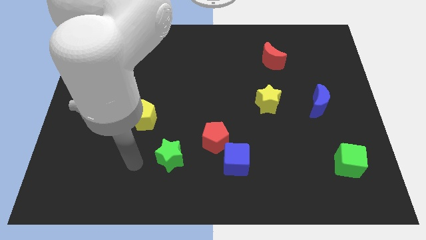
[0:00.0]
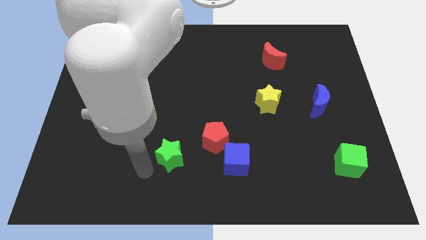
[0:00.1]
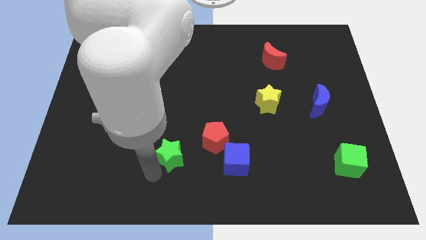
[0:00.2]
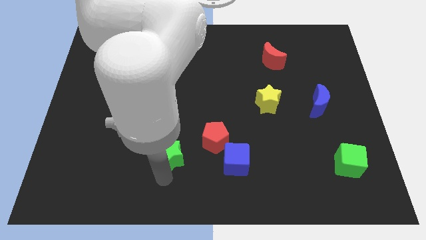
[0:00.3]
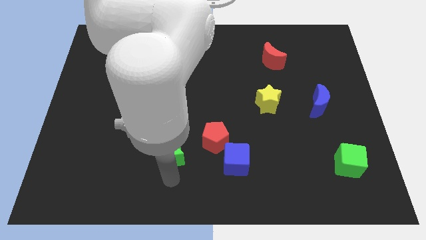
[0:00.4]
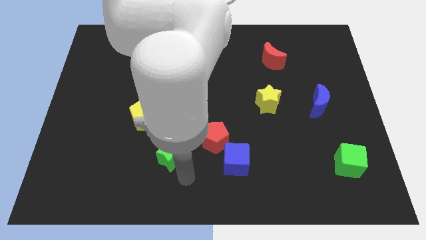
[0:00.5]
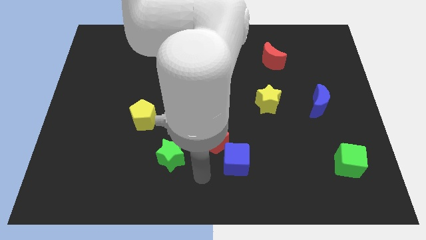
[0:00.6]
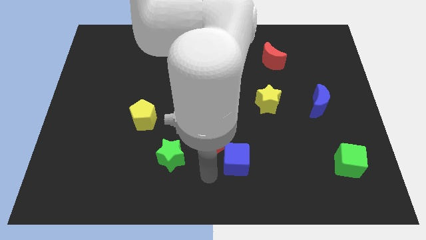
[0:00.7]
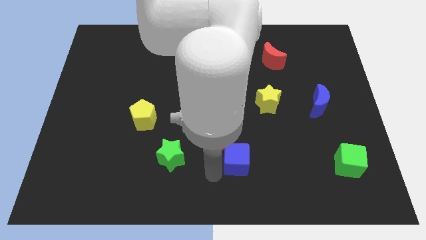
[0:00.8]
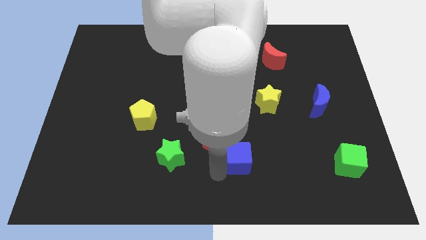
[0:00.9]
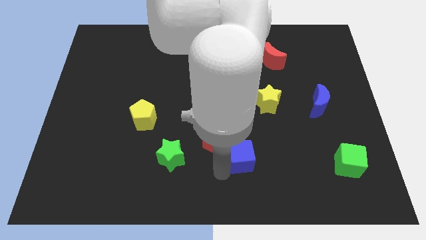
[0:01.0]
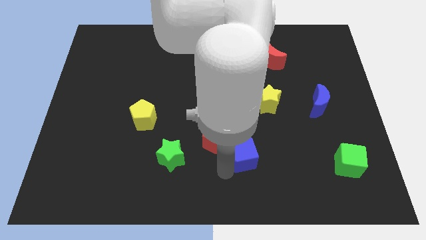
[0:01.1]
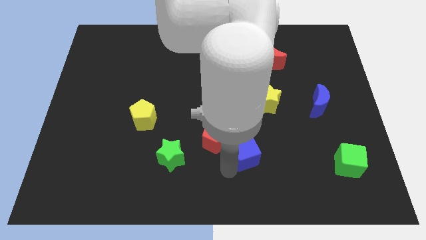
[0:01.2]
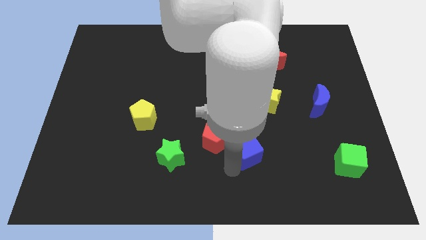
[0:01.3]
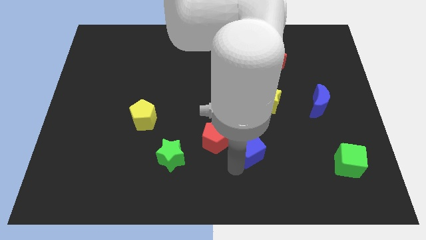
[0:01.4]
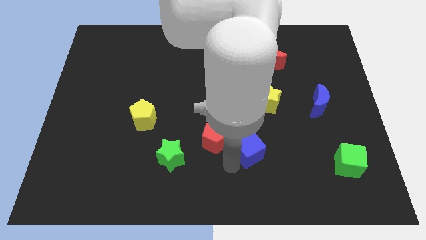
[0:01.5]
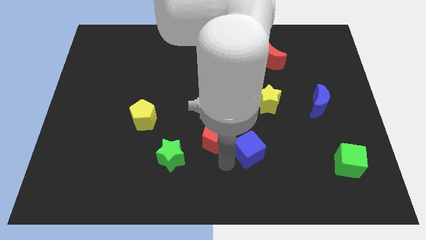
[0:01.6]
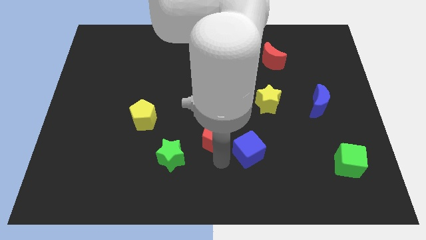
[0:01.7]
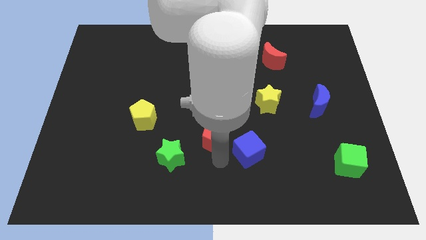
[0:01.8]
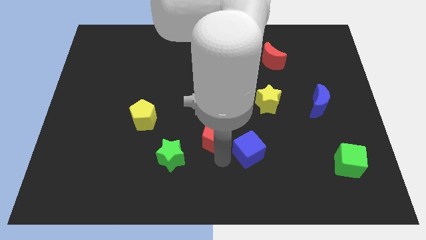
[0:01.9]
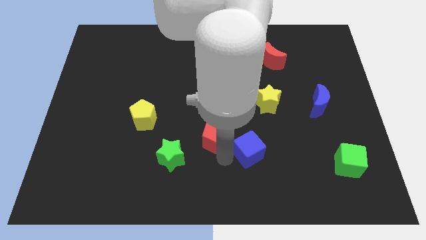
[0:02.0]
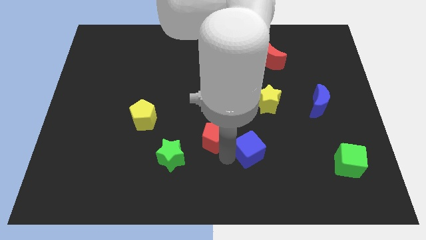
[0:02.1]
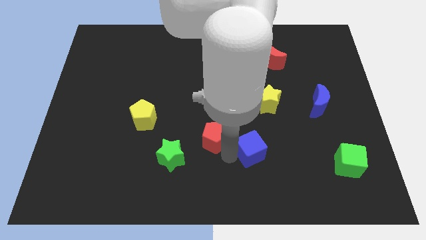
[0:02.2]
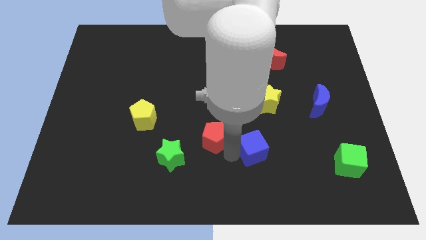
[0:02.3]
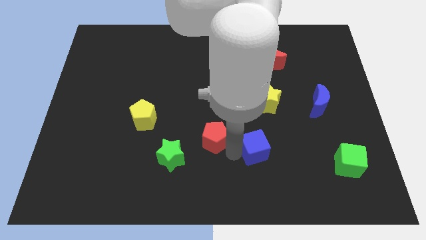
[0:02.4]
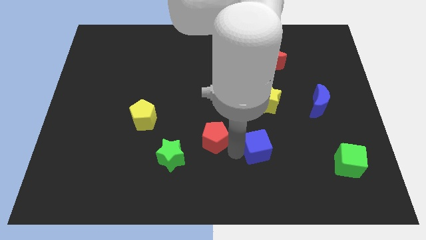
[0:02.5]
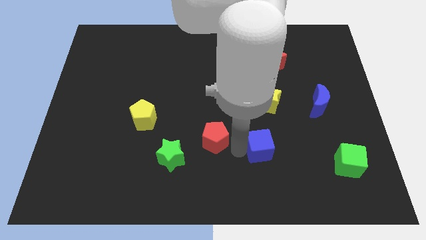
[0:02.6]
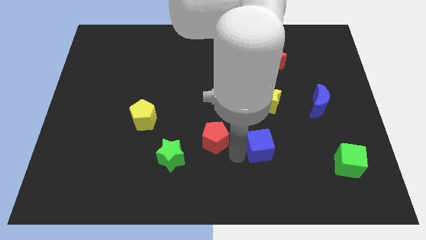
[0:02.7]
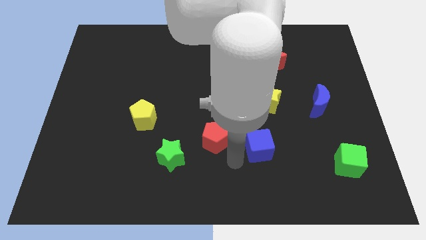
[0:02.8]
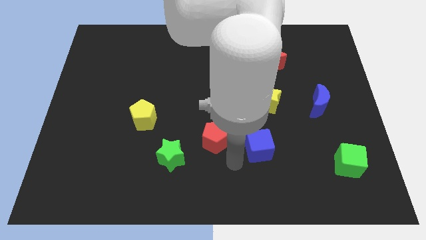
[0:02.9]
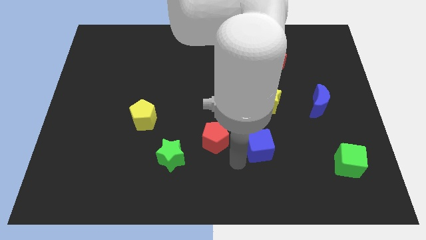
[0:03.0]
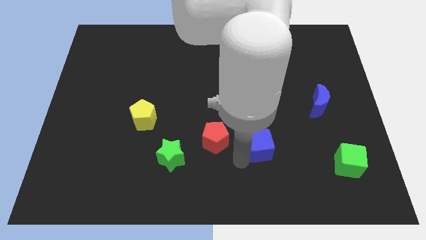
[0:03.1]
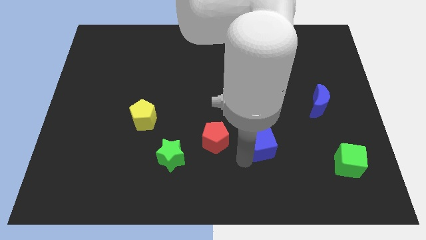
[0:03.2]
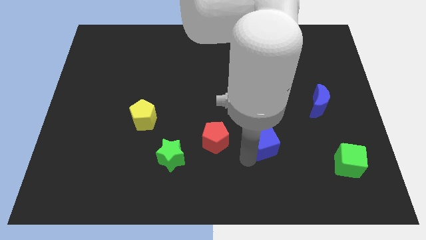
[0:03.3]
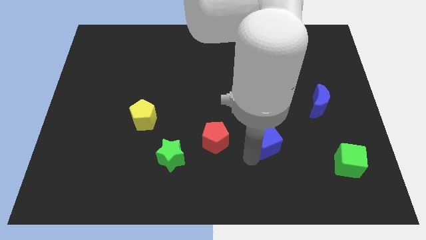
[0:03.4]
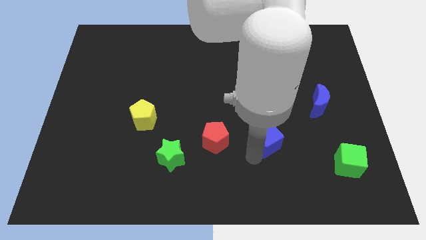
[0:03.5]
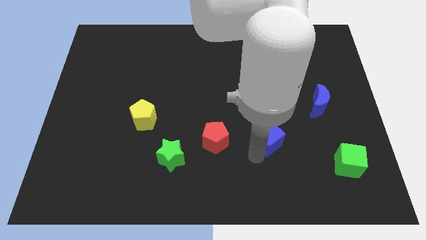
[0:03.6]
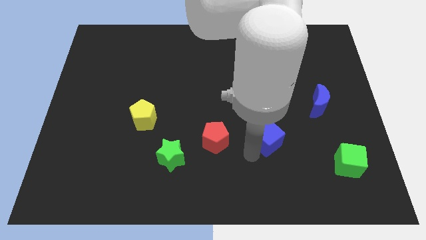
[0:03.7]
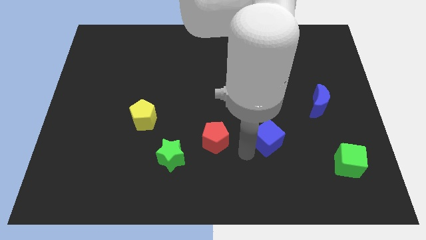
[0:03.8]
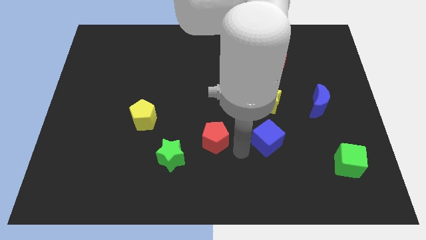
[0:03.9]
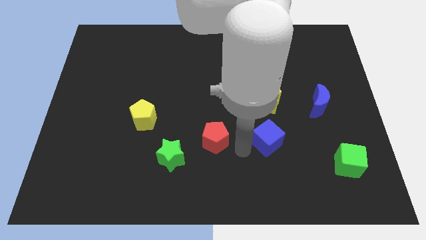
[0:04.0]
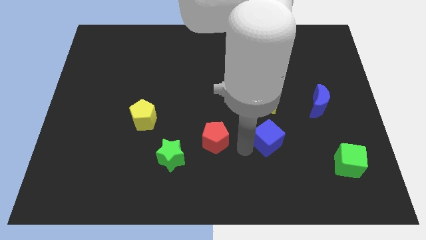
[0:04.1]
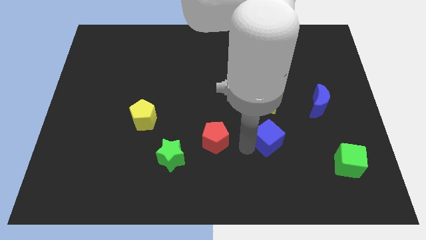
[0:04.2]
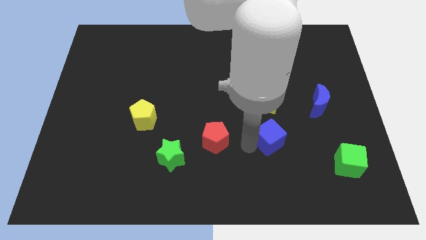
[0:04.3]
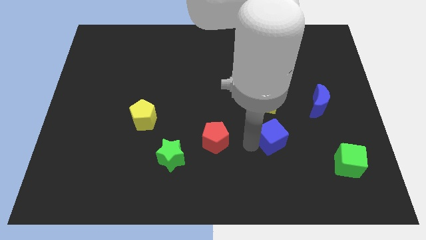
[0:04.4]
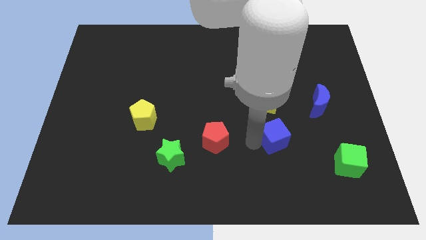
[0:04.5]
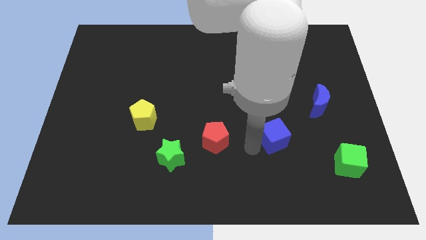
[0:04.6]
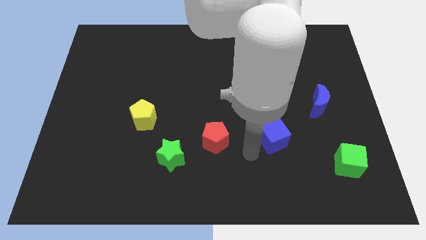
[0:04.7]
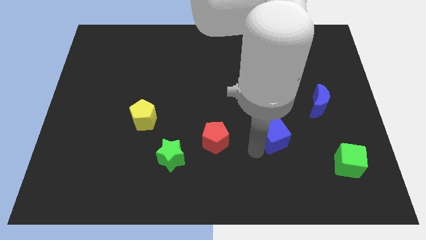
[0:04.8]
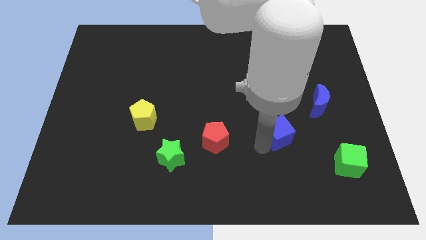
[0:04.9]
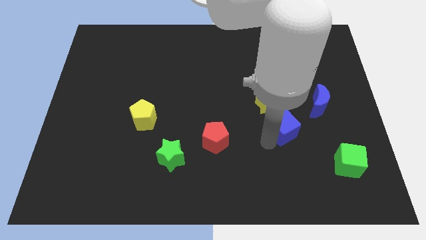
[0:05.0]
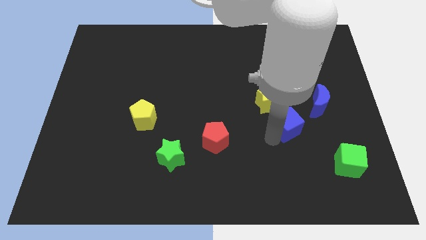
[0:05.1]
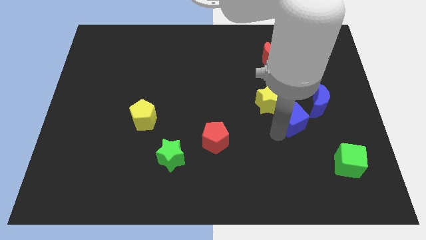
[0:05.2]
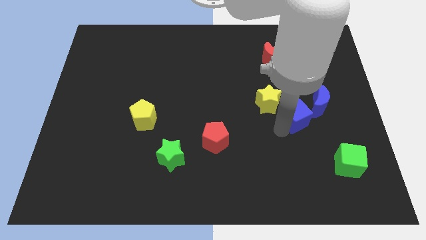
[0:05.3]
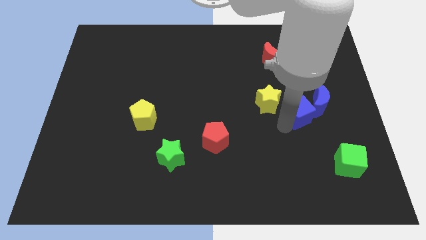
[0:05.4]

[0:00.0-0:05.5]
move the blue cube to the blue moon

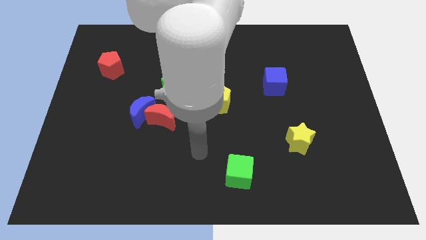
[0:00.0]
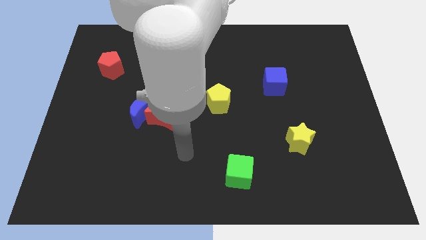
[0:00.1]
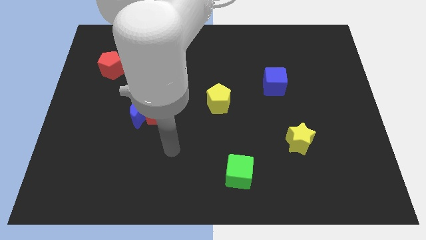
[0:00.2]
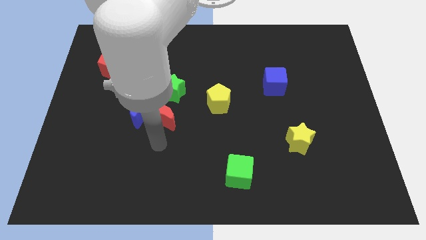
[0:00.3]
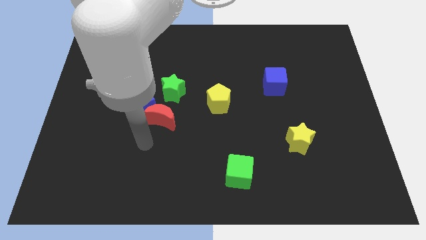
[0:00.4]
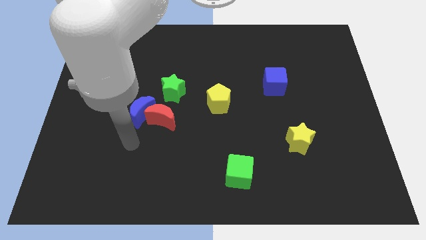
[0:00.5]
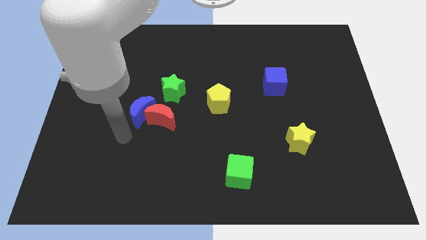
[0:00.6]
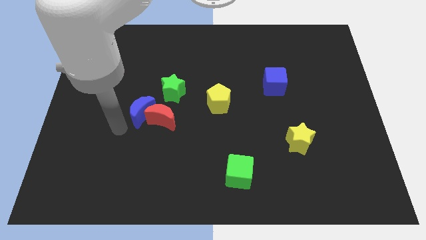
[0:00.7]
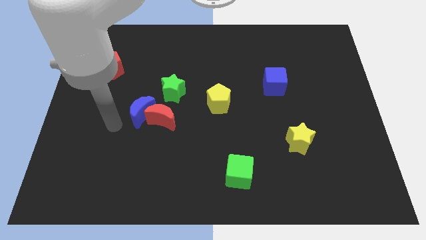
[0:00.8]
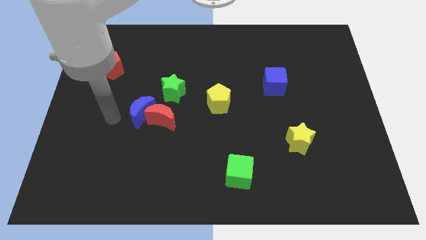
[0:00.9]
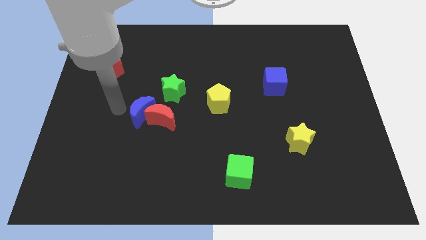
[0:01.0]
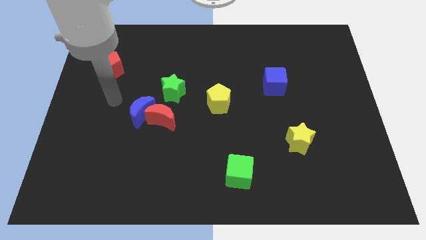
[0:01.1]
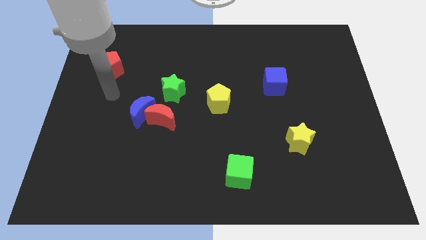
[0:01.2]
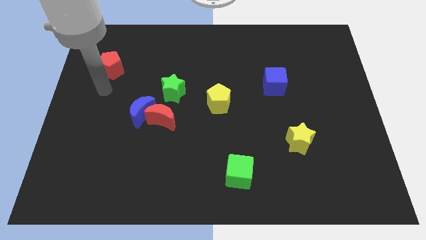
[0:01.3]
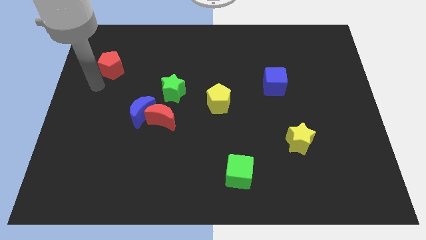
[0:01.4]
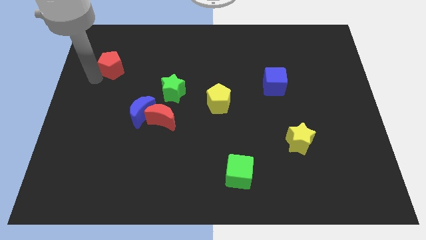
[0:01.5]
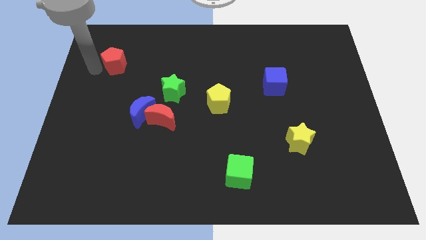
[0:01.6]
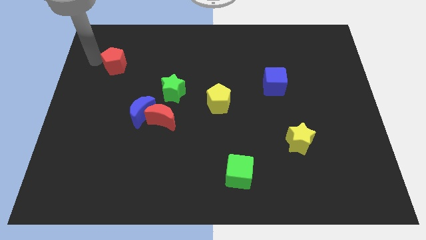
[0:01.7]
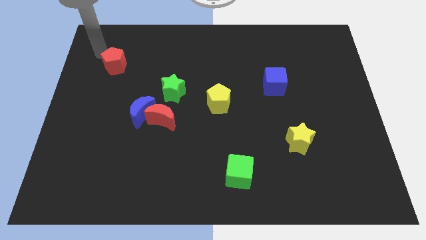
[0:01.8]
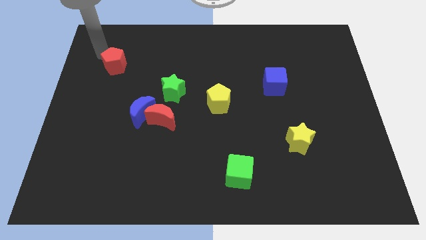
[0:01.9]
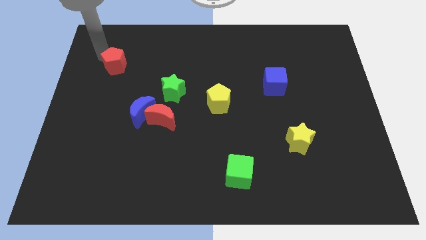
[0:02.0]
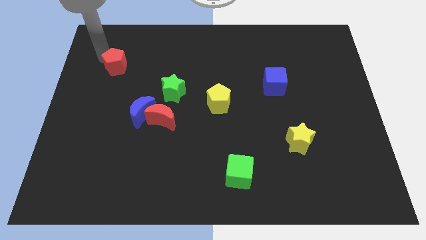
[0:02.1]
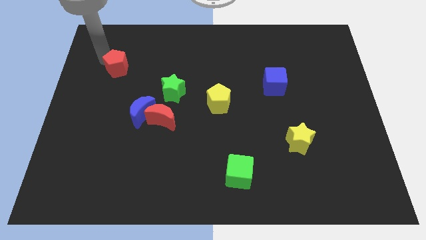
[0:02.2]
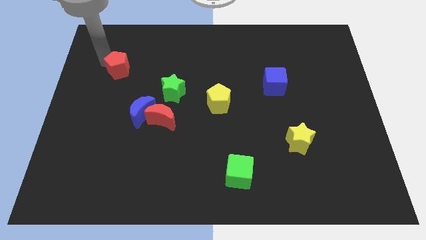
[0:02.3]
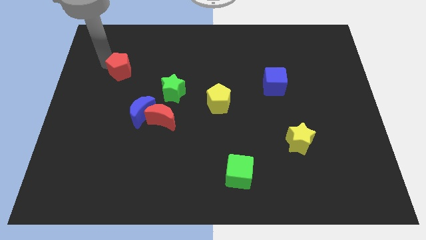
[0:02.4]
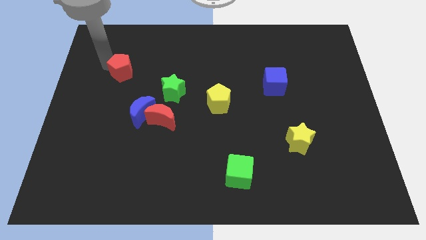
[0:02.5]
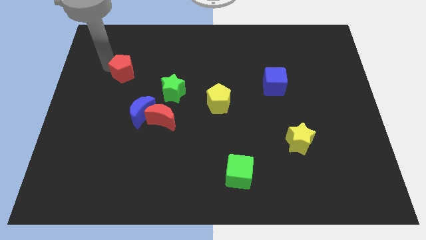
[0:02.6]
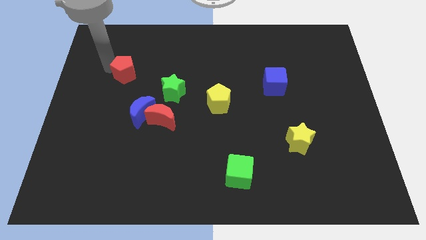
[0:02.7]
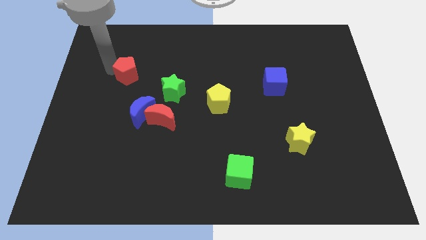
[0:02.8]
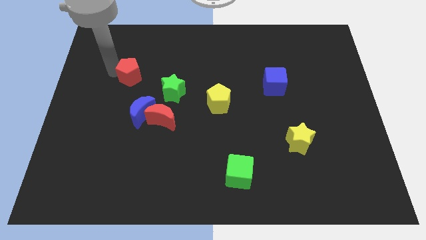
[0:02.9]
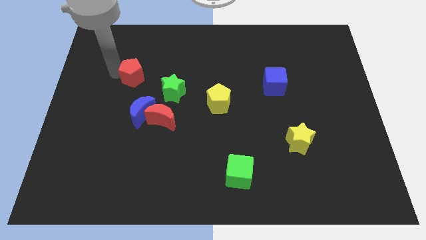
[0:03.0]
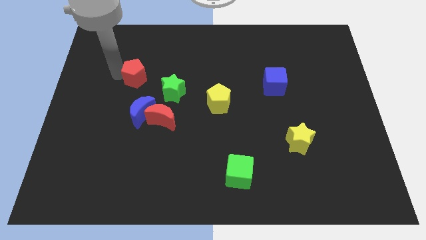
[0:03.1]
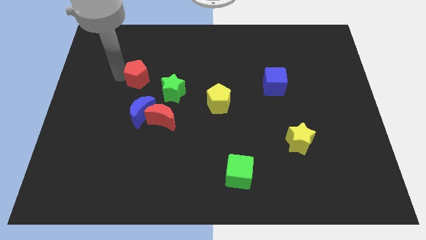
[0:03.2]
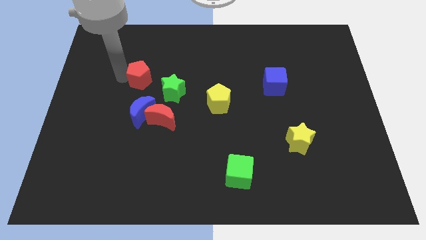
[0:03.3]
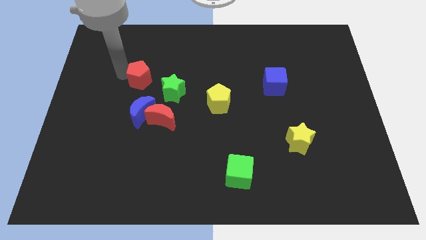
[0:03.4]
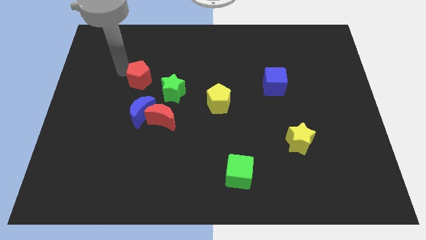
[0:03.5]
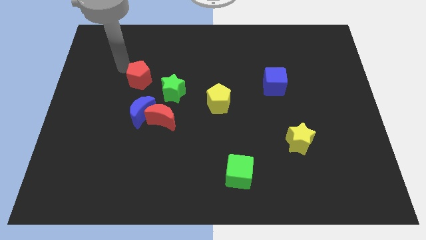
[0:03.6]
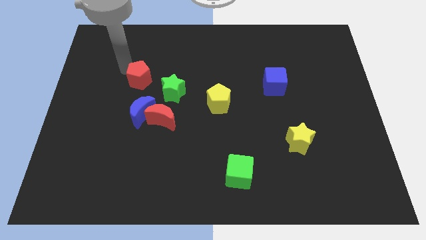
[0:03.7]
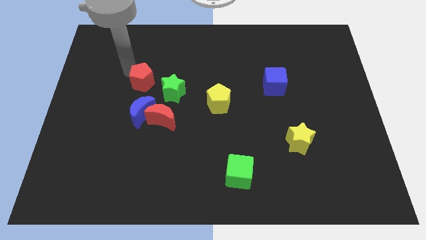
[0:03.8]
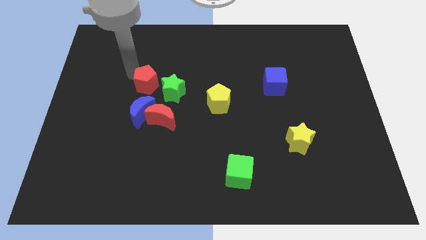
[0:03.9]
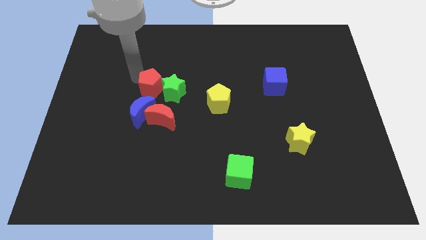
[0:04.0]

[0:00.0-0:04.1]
put the red pentagon towards the green star
